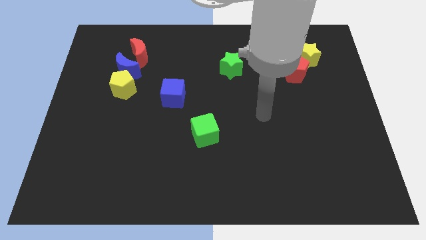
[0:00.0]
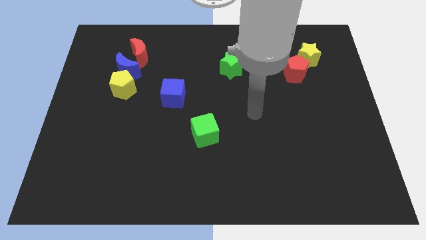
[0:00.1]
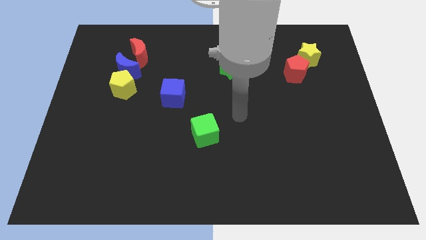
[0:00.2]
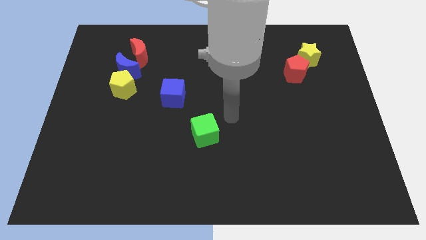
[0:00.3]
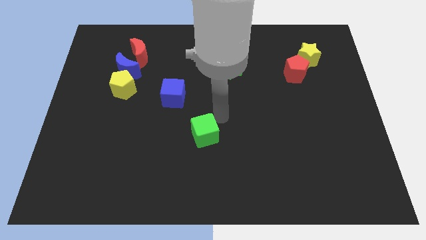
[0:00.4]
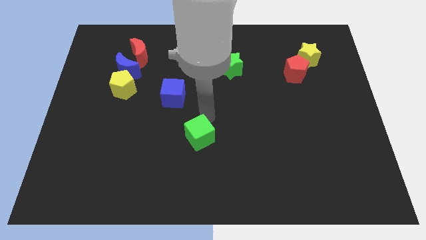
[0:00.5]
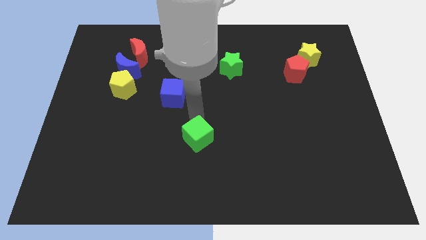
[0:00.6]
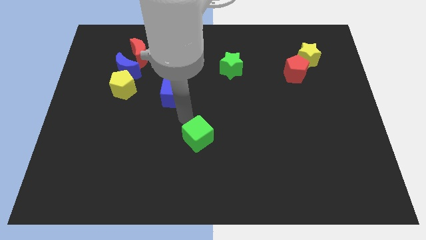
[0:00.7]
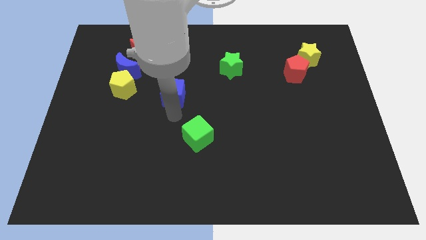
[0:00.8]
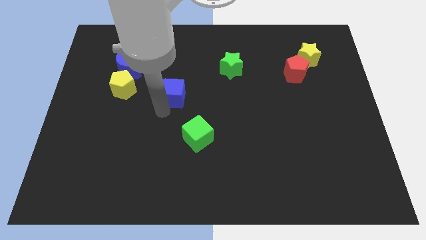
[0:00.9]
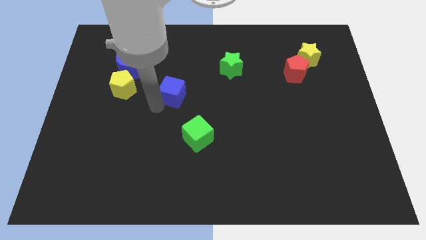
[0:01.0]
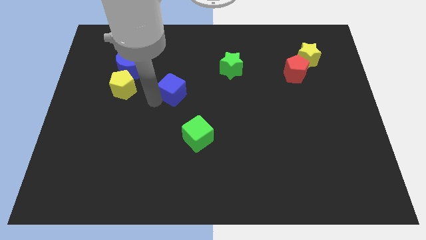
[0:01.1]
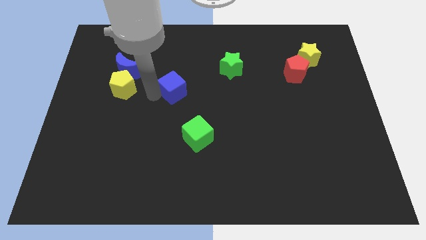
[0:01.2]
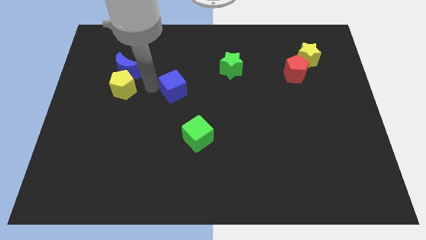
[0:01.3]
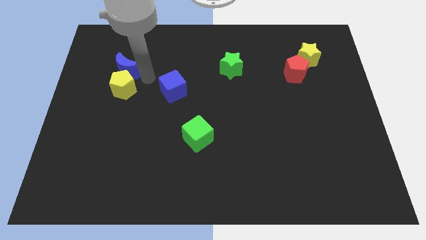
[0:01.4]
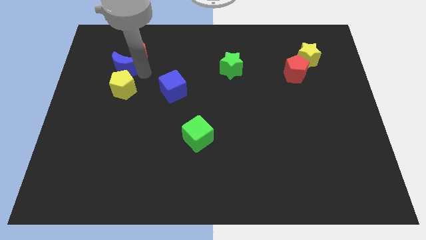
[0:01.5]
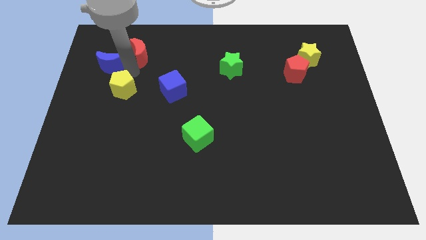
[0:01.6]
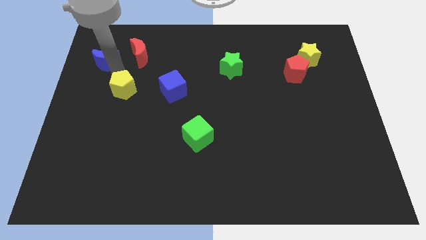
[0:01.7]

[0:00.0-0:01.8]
separate the yellow pentagon from the blue moon

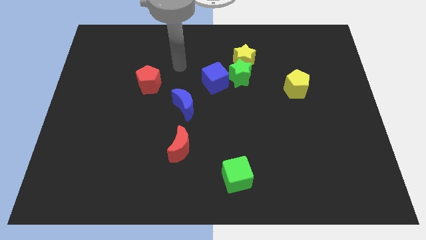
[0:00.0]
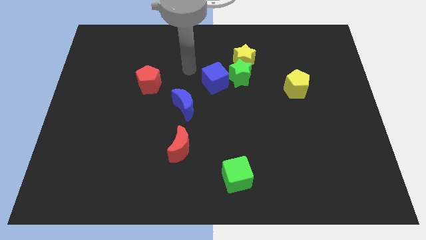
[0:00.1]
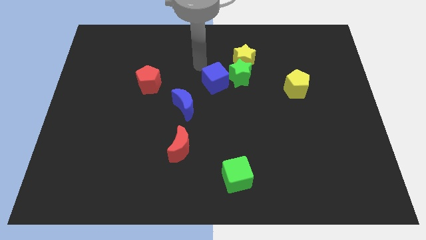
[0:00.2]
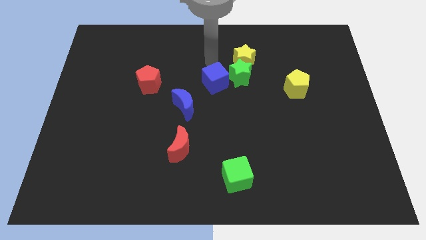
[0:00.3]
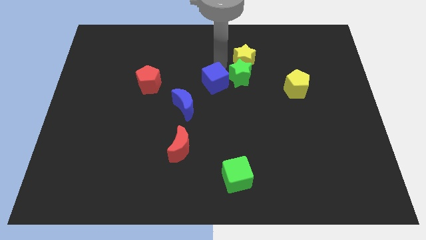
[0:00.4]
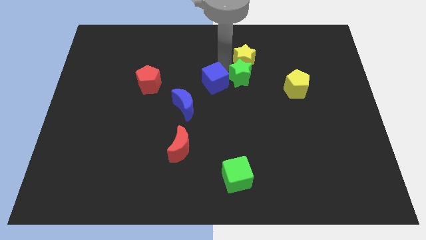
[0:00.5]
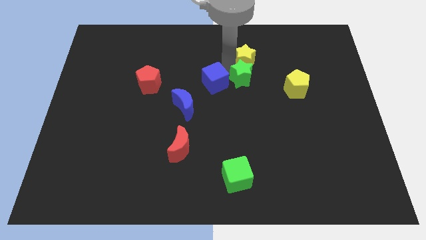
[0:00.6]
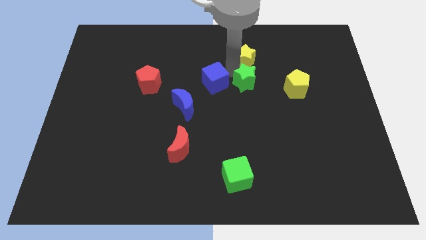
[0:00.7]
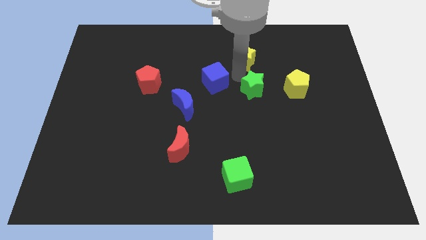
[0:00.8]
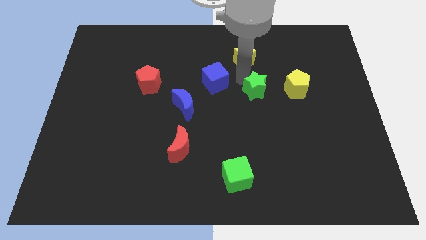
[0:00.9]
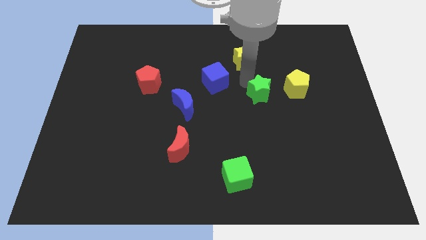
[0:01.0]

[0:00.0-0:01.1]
separate the green star from the yellow star and blue cube

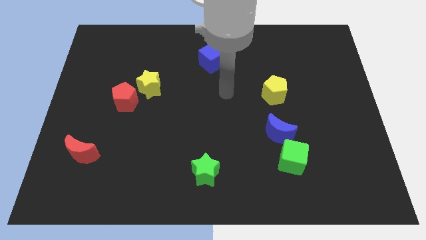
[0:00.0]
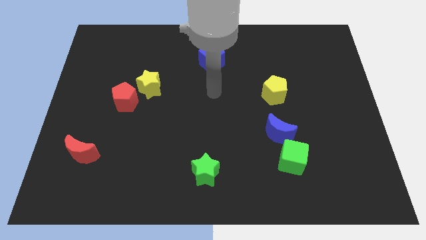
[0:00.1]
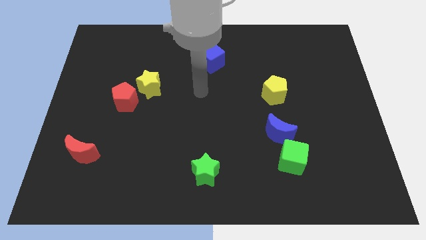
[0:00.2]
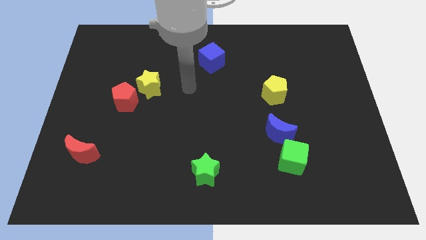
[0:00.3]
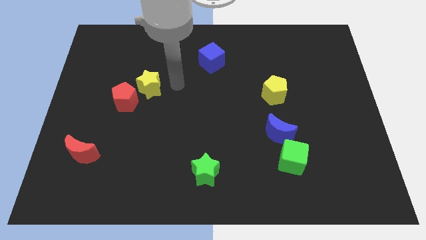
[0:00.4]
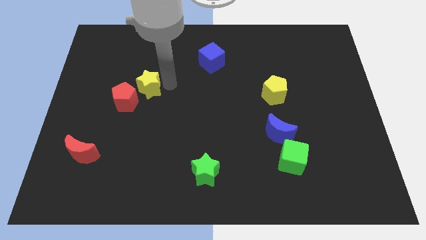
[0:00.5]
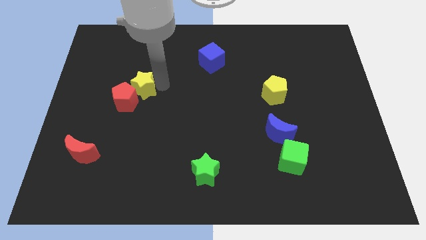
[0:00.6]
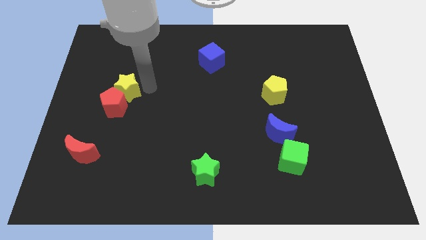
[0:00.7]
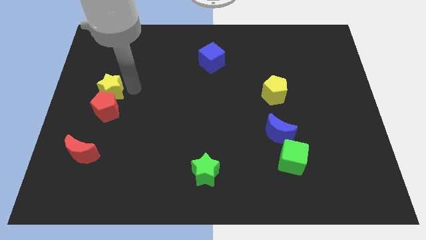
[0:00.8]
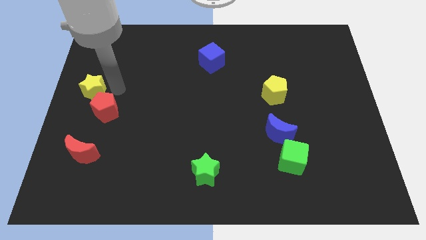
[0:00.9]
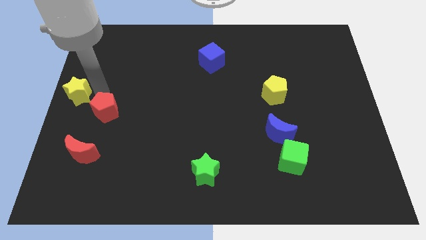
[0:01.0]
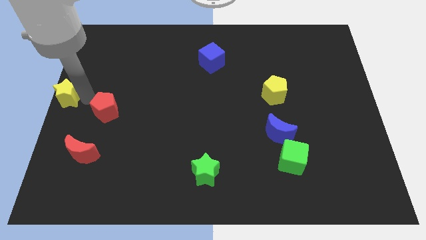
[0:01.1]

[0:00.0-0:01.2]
pull the red pentagon apart from the yellow star

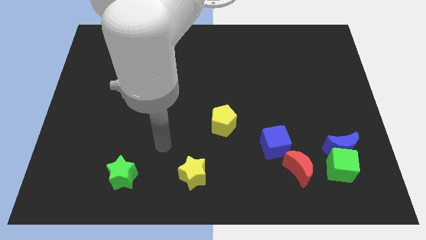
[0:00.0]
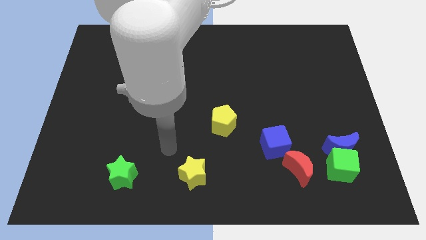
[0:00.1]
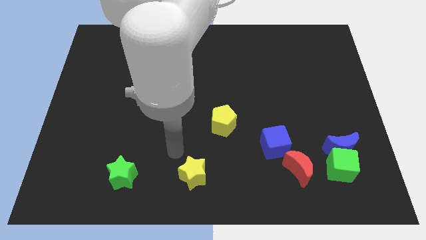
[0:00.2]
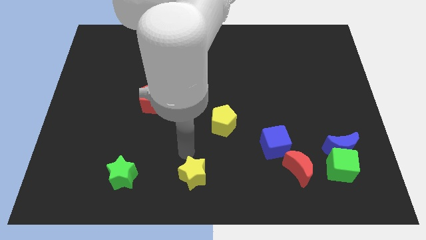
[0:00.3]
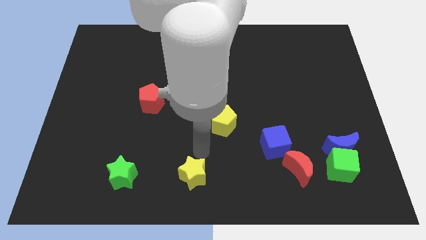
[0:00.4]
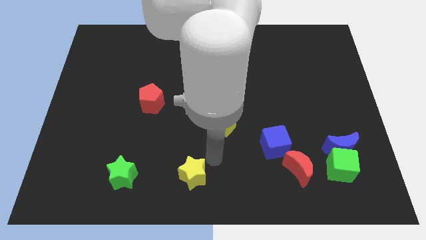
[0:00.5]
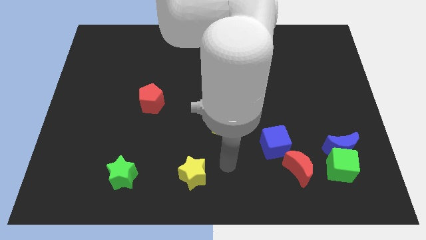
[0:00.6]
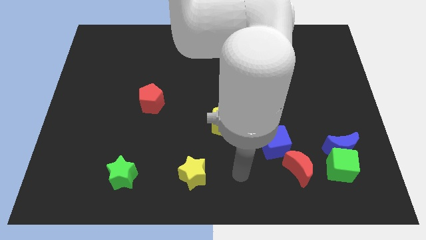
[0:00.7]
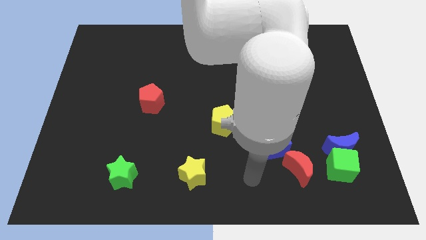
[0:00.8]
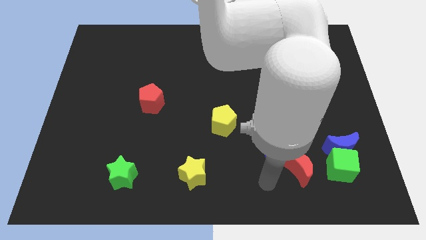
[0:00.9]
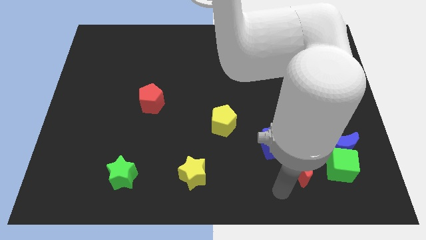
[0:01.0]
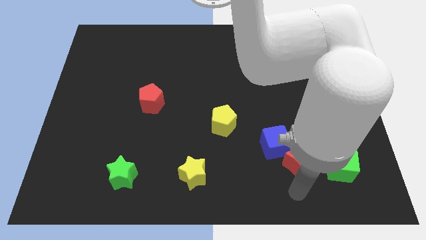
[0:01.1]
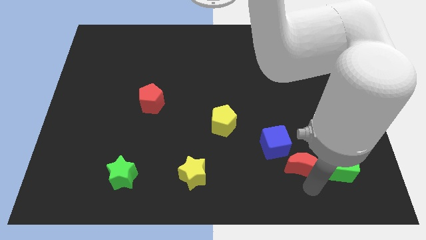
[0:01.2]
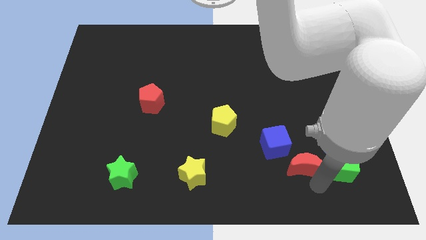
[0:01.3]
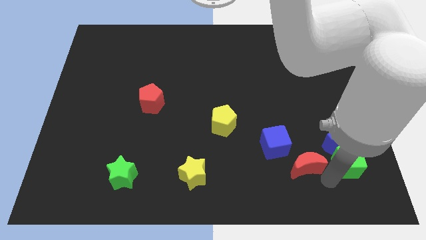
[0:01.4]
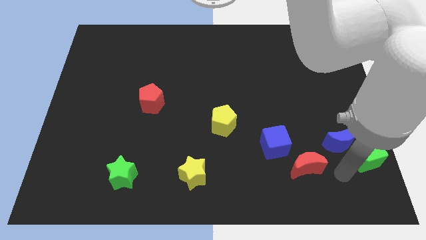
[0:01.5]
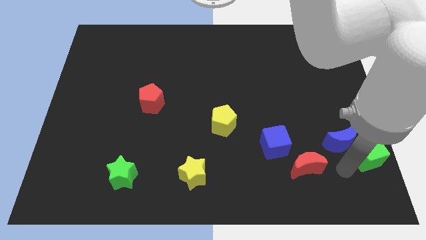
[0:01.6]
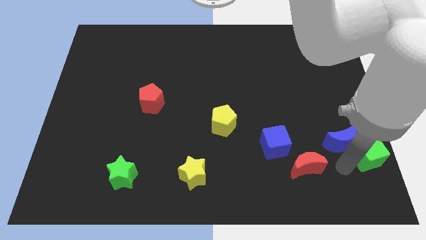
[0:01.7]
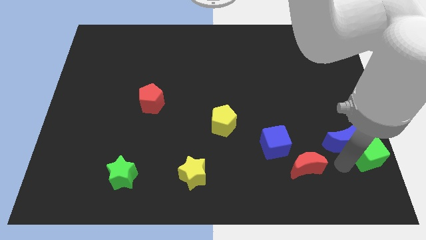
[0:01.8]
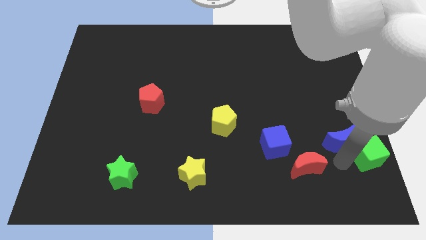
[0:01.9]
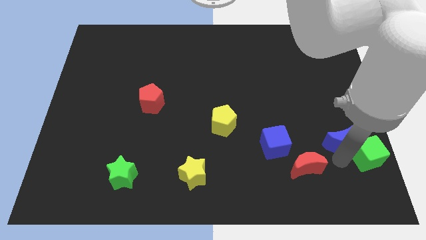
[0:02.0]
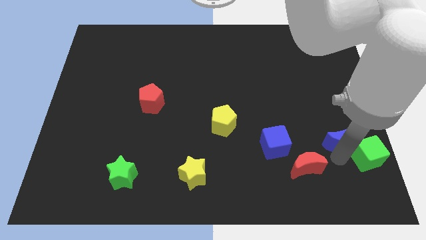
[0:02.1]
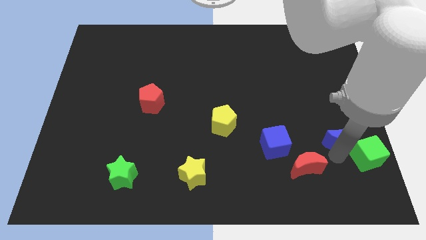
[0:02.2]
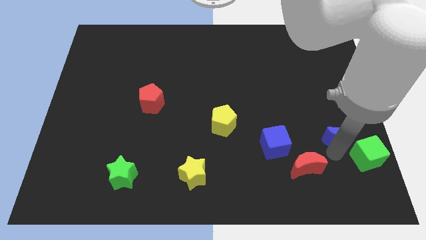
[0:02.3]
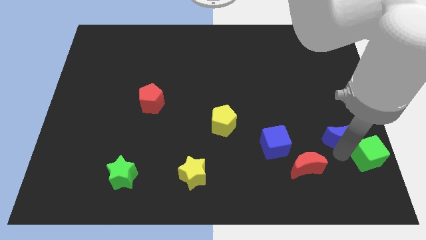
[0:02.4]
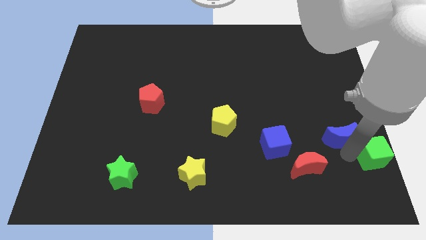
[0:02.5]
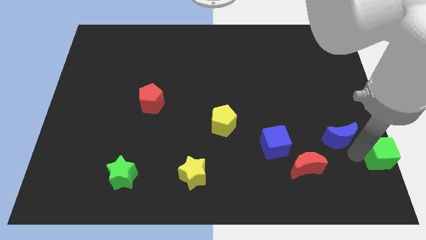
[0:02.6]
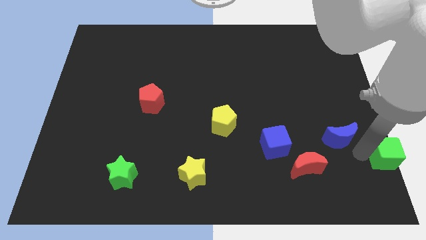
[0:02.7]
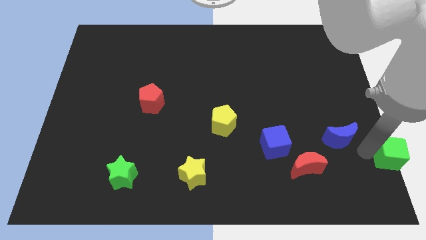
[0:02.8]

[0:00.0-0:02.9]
separate the blue moon from the green cube

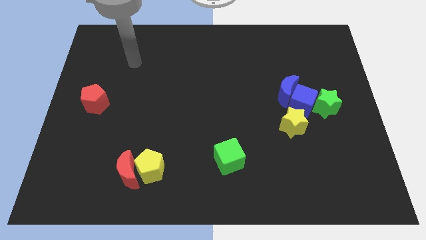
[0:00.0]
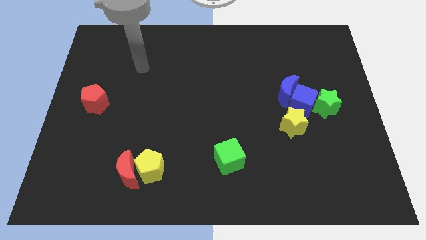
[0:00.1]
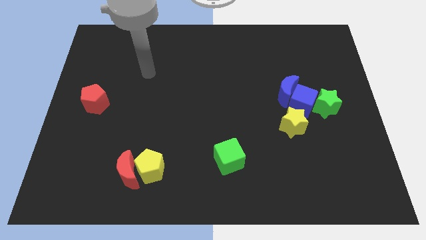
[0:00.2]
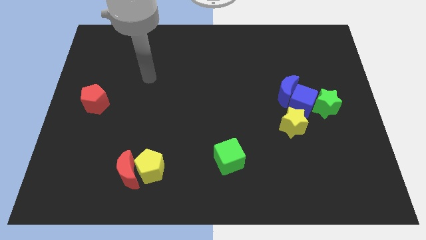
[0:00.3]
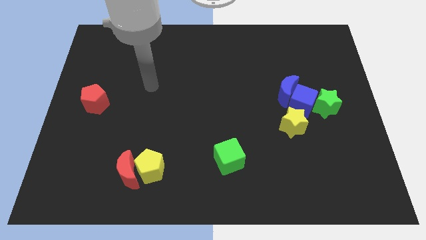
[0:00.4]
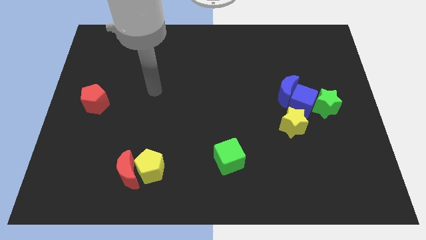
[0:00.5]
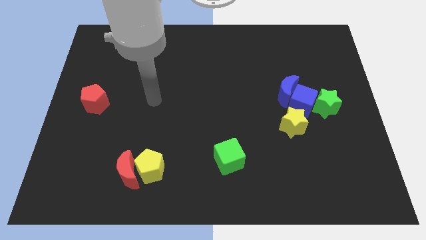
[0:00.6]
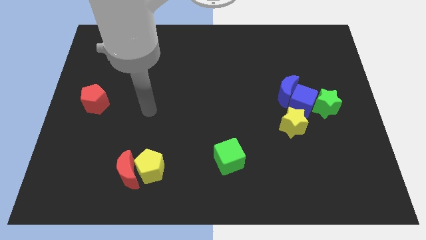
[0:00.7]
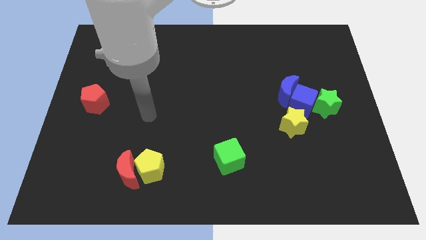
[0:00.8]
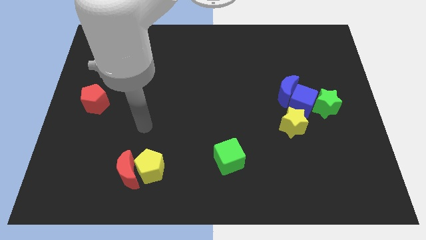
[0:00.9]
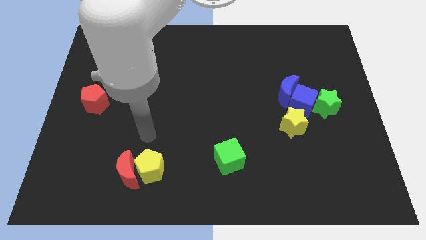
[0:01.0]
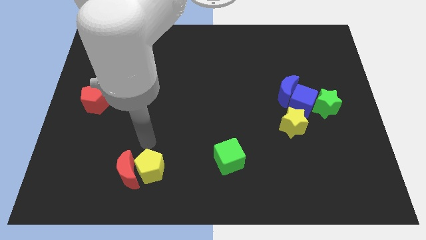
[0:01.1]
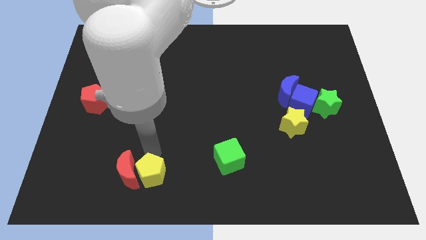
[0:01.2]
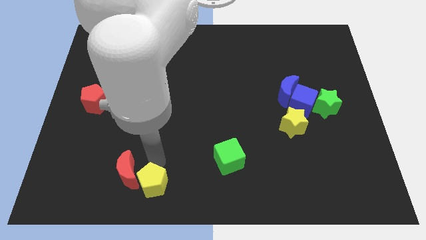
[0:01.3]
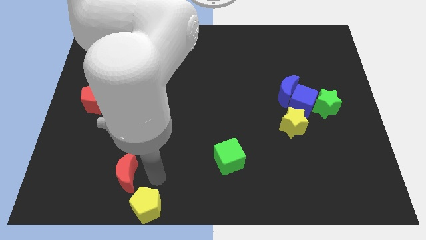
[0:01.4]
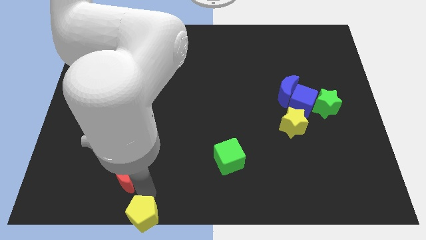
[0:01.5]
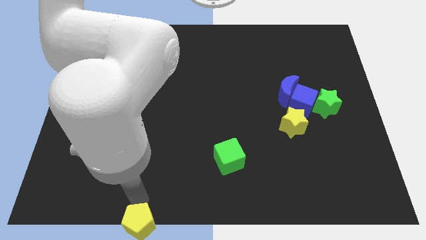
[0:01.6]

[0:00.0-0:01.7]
separate the red moon from the yellow pentagon

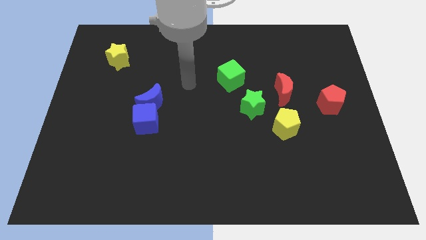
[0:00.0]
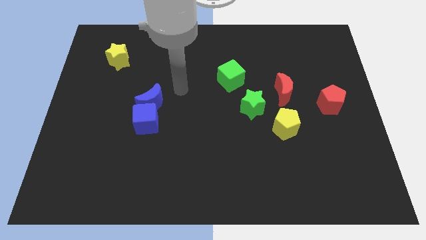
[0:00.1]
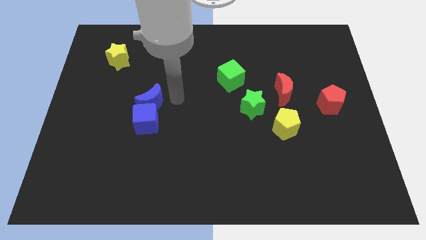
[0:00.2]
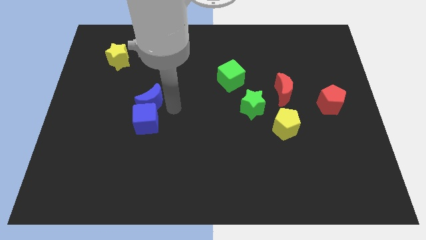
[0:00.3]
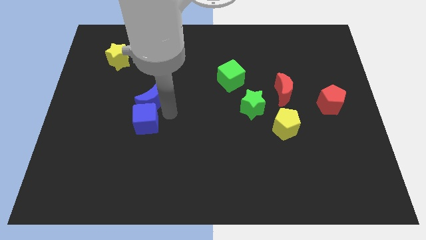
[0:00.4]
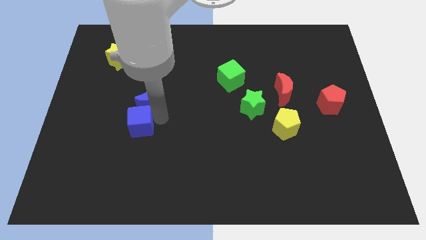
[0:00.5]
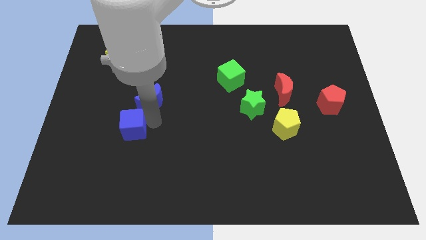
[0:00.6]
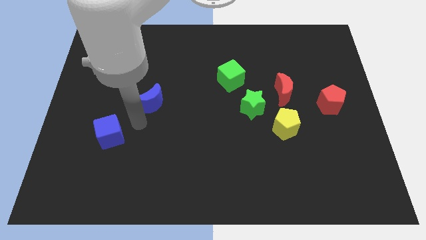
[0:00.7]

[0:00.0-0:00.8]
move the blue moon away from the blue cube
